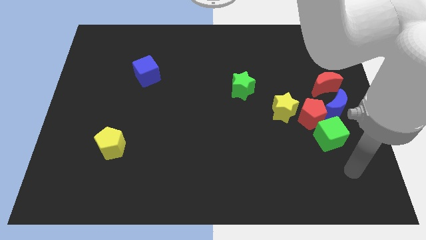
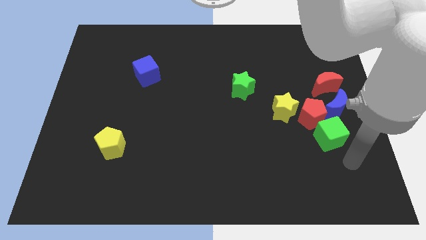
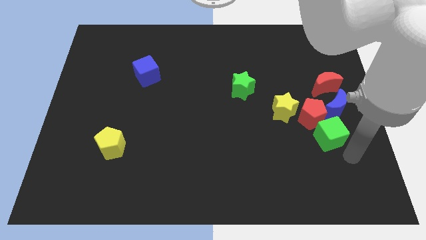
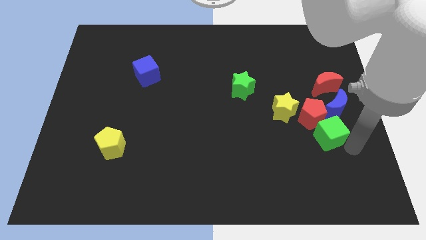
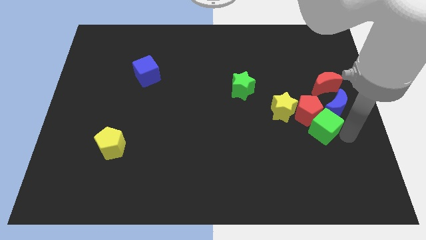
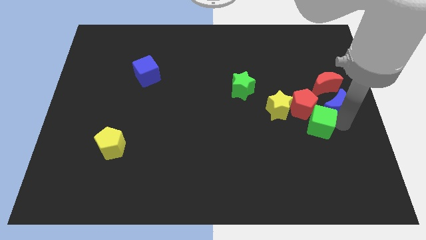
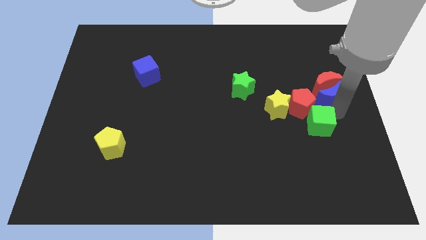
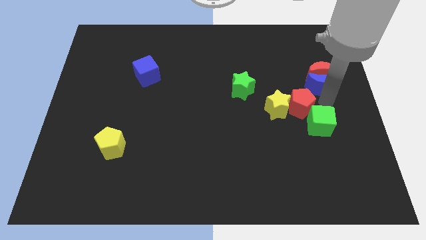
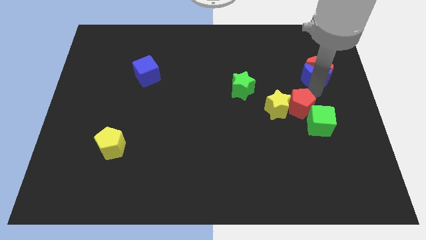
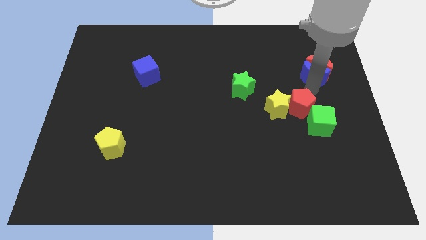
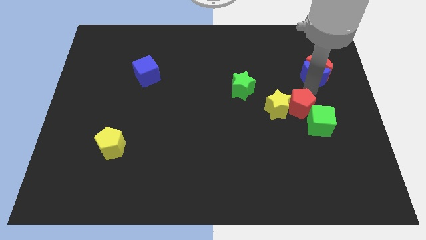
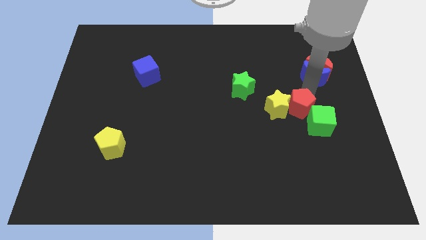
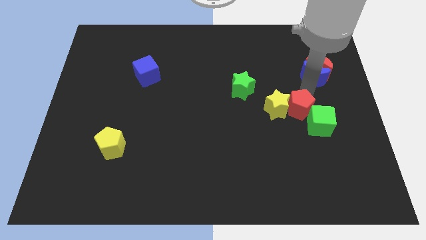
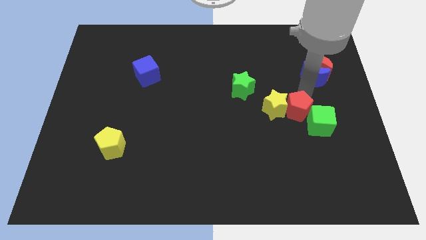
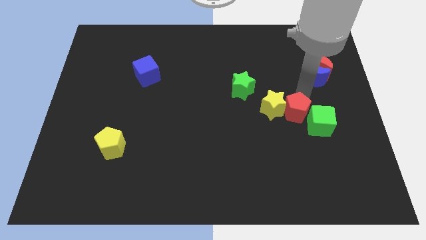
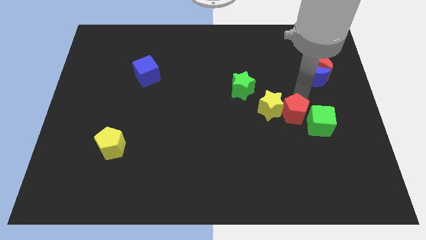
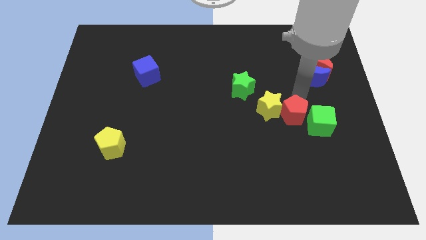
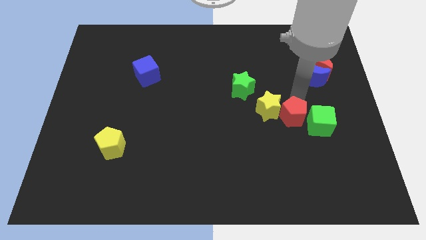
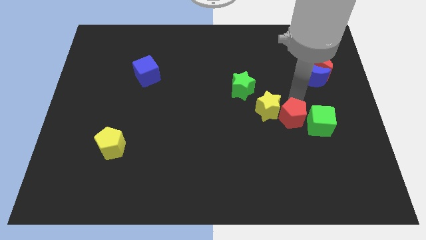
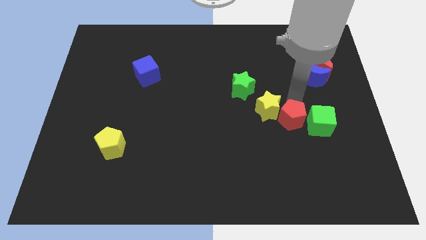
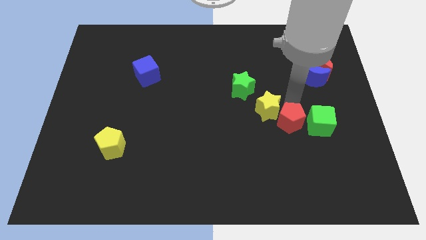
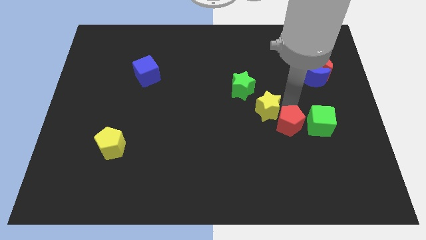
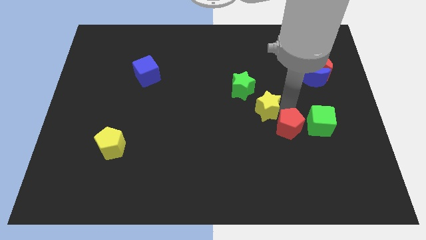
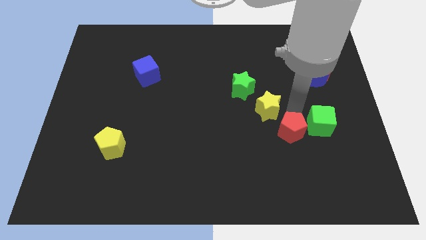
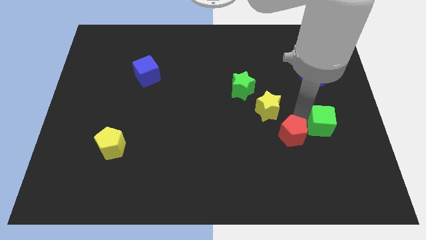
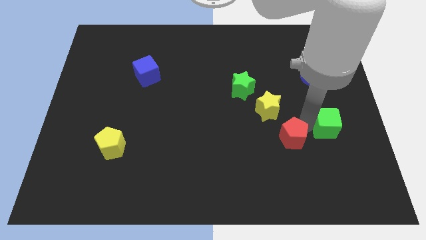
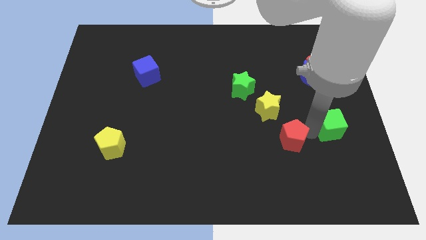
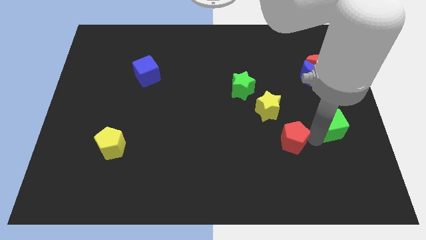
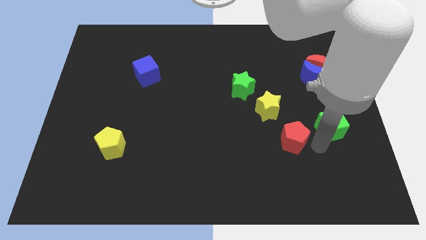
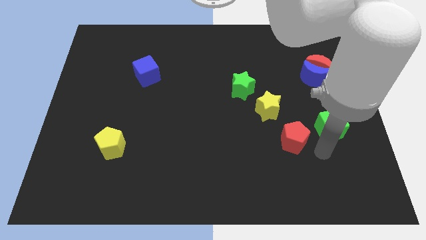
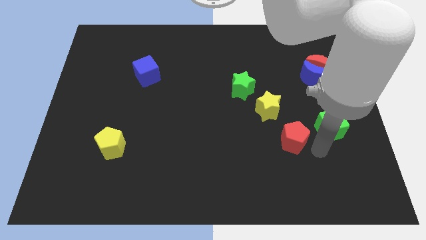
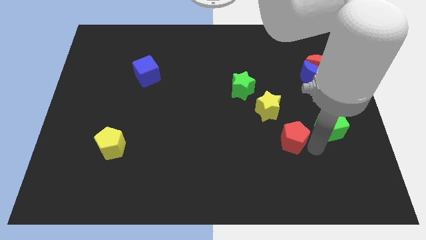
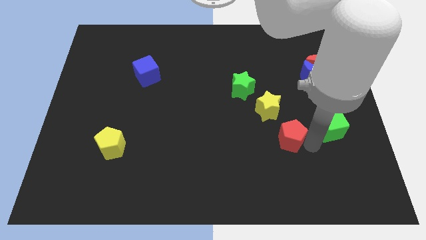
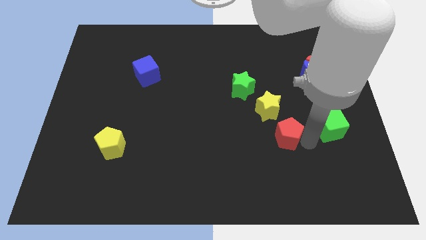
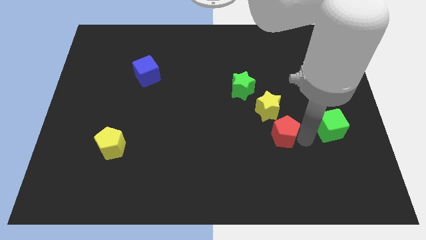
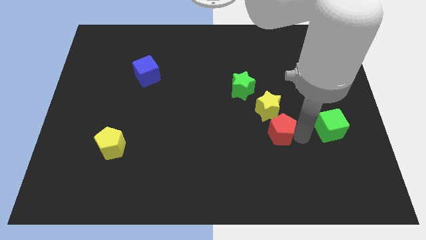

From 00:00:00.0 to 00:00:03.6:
move the red pentagon a little to the left

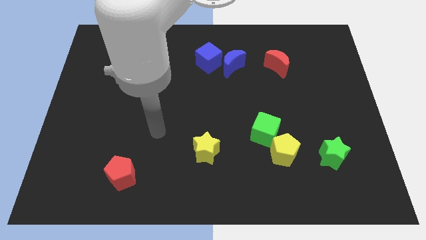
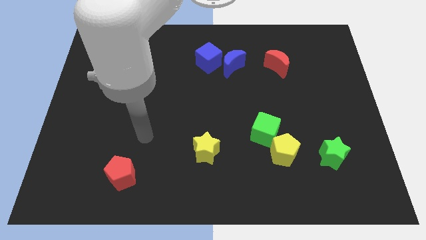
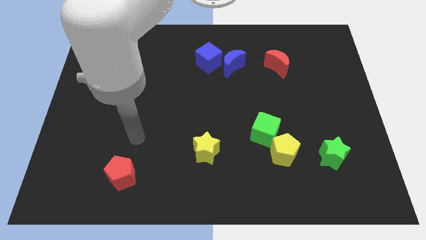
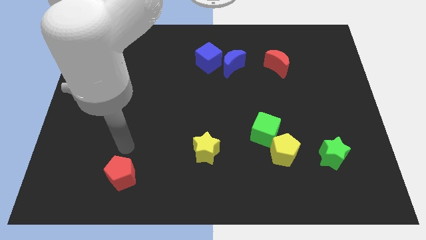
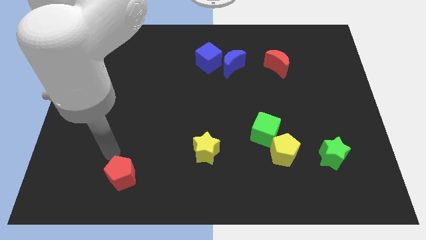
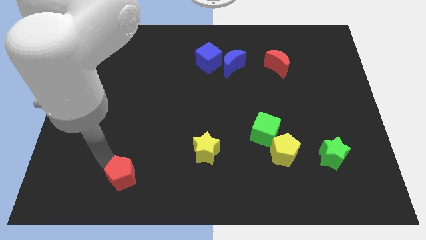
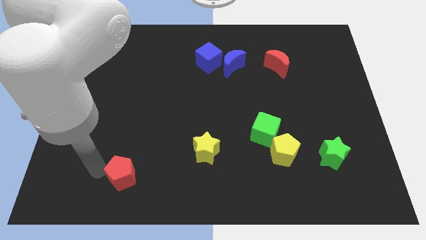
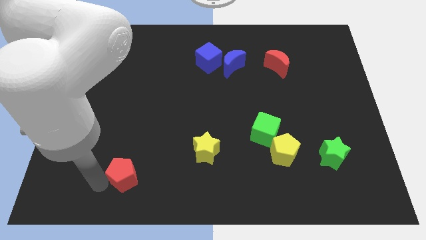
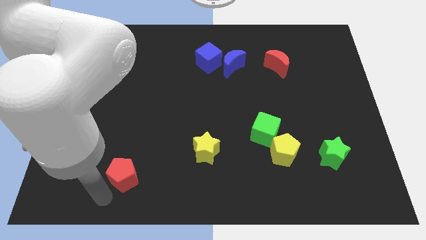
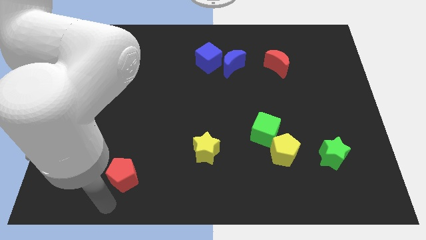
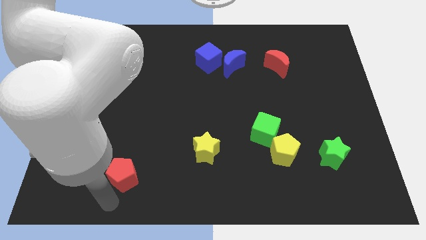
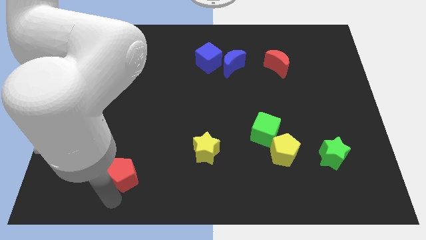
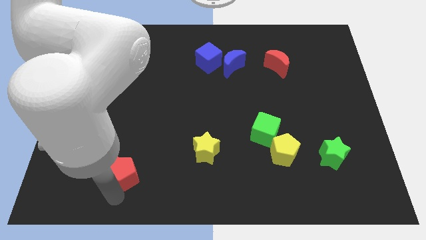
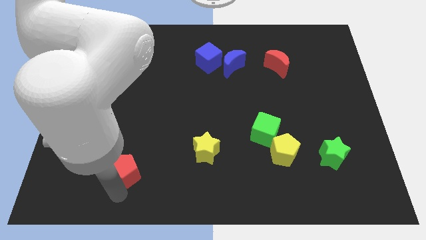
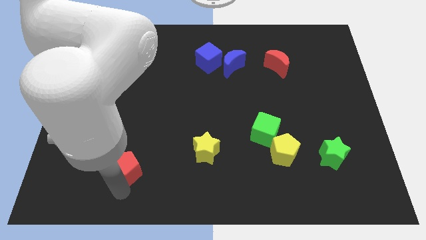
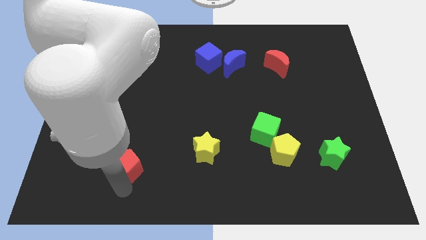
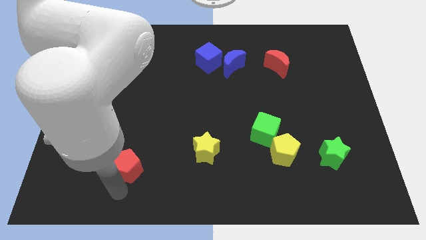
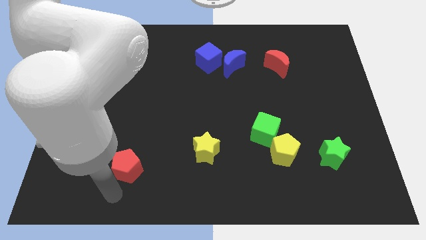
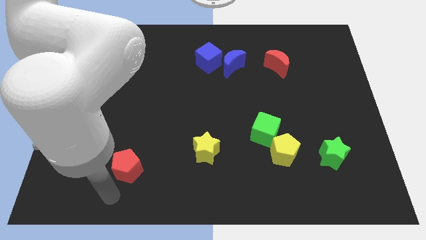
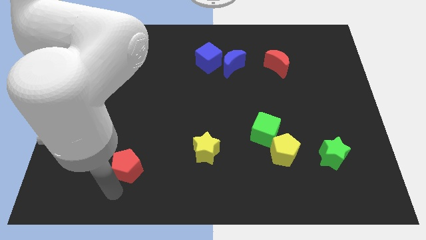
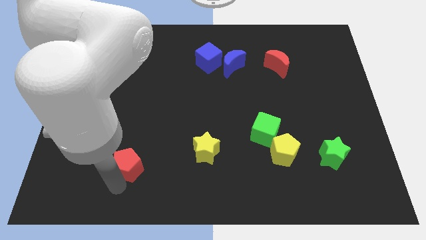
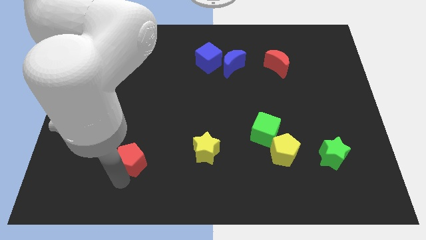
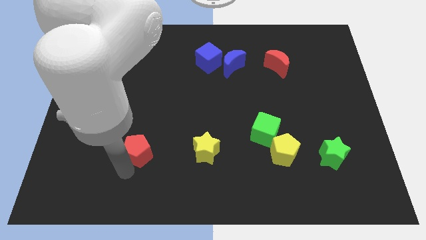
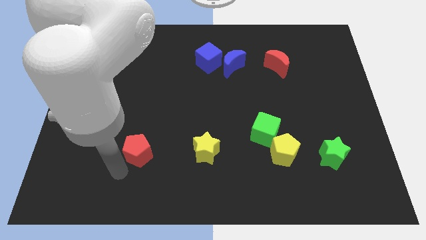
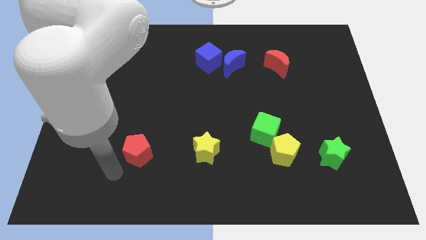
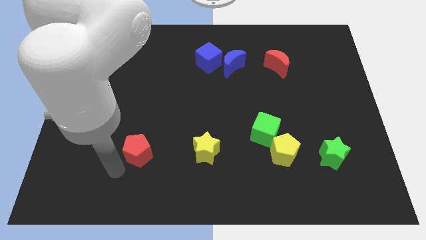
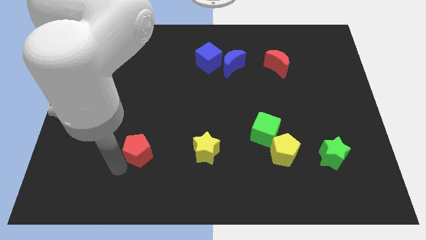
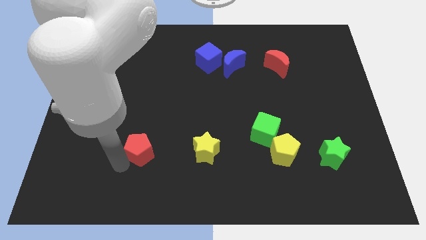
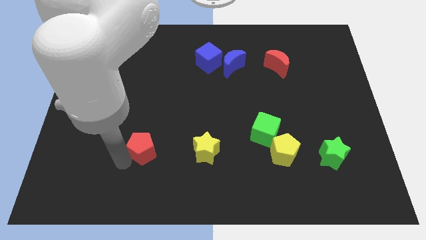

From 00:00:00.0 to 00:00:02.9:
slide the red pentagon a bit diagonally upwards and right

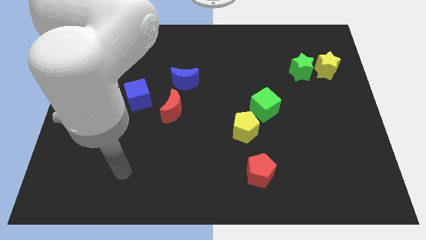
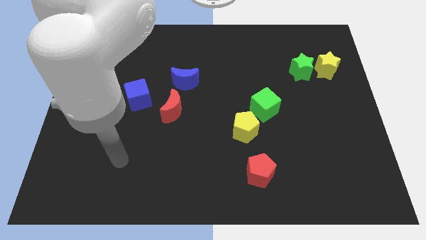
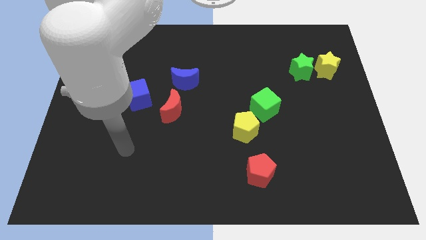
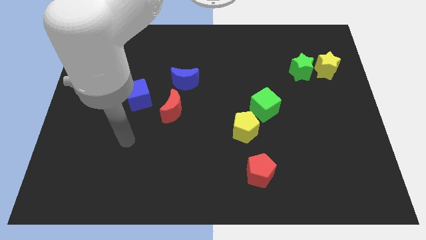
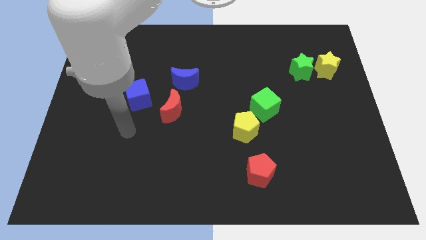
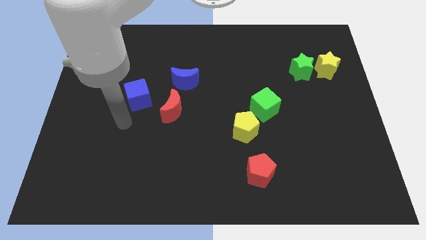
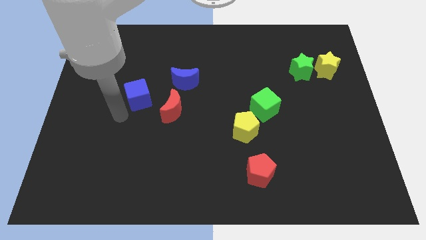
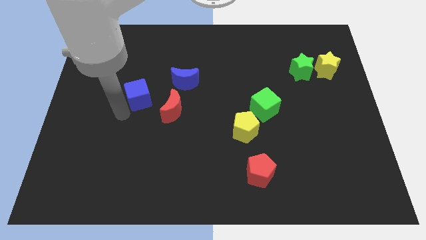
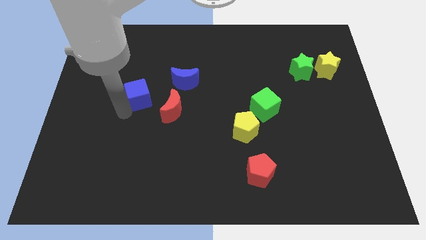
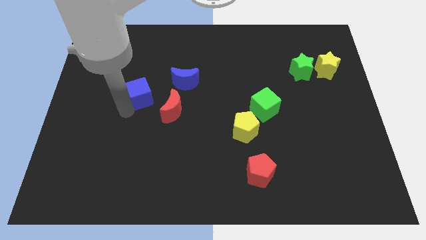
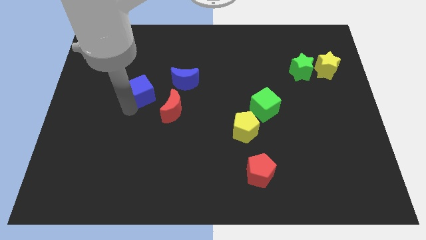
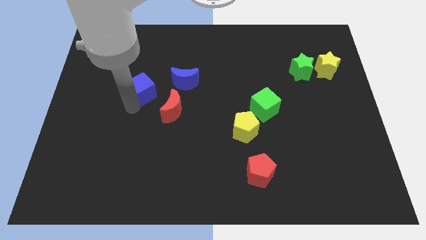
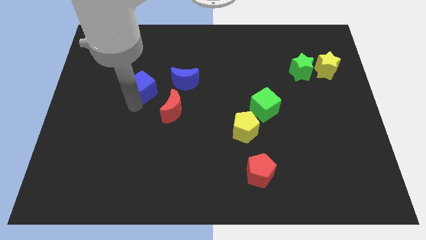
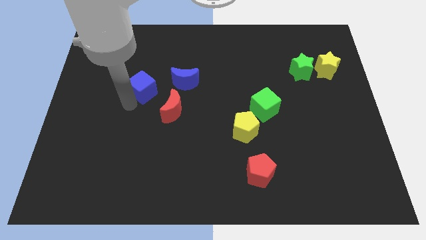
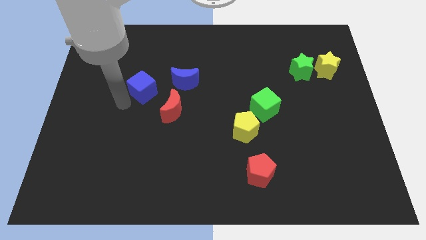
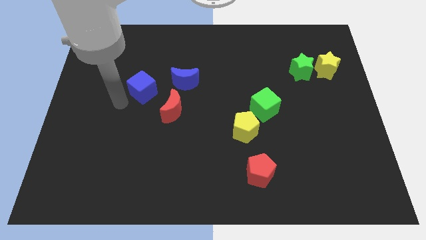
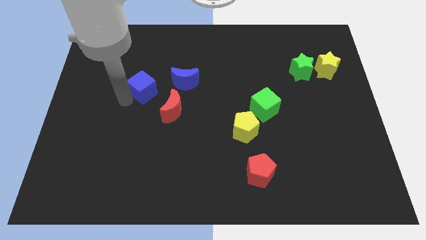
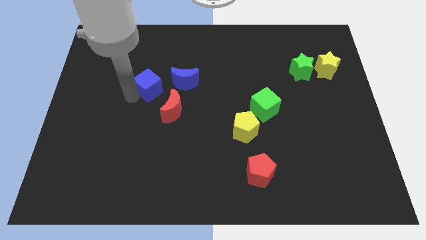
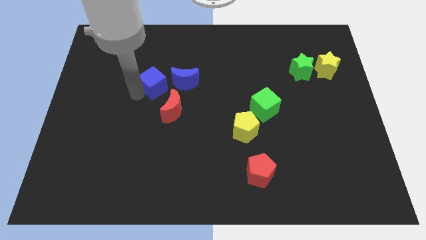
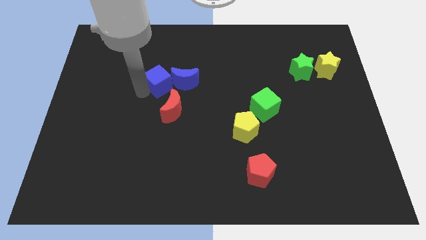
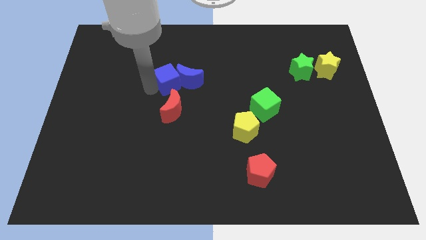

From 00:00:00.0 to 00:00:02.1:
move the blue cube a little bit diagonally upwards and right
